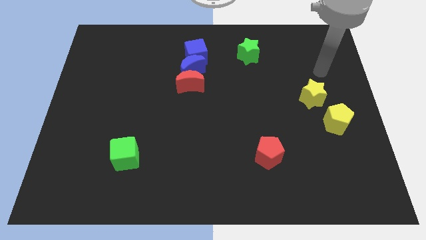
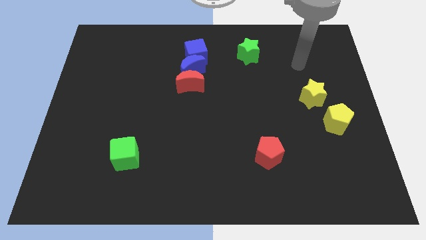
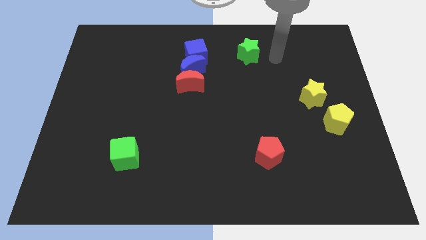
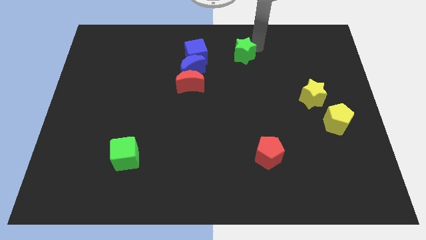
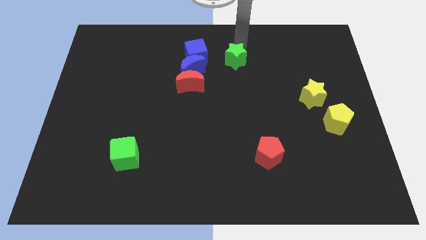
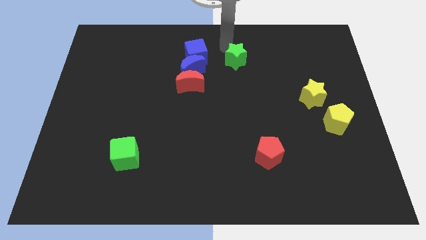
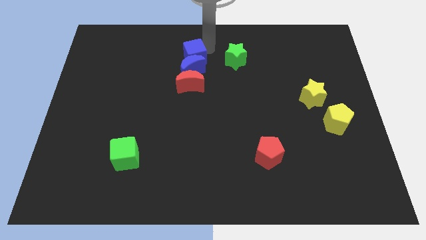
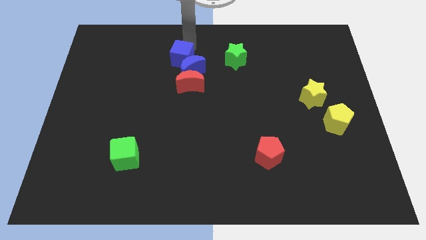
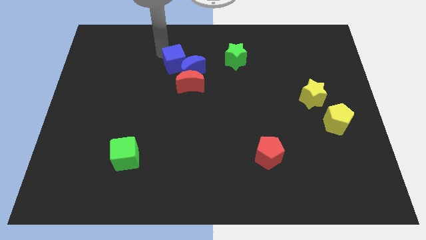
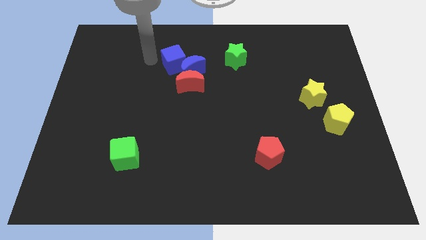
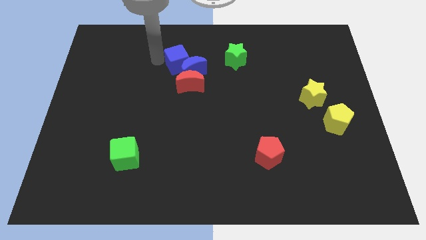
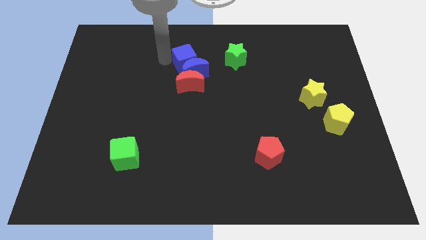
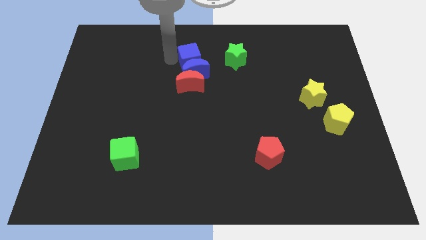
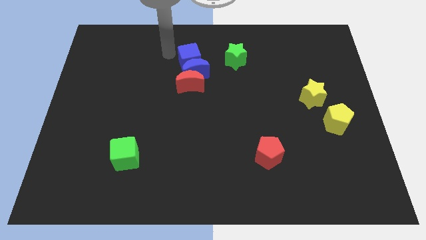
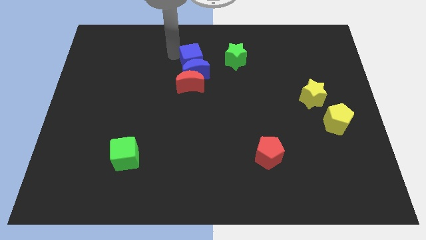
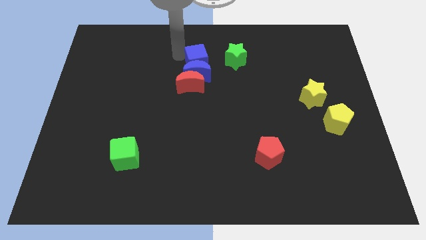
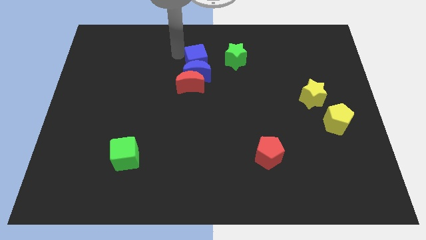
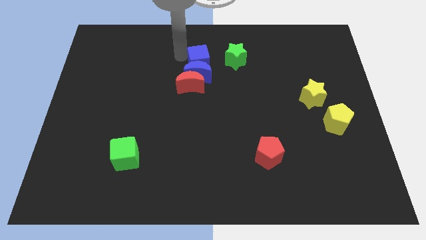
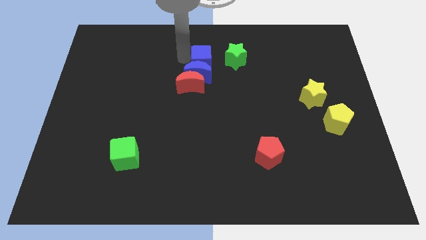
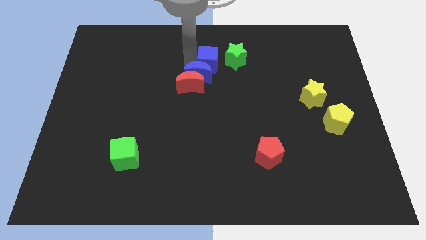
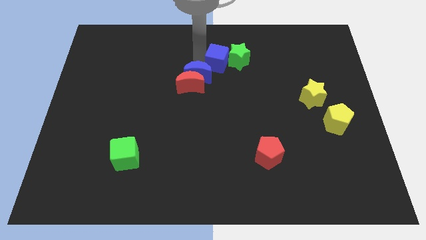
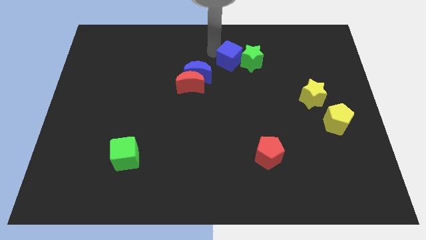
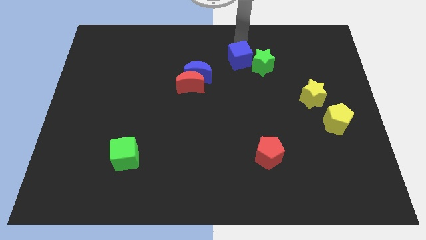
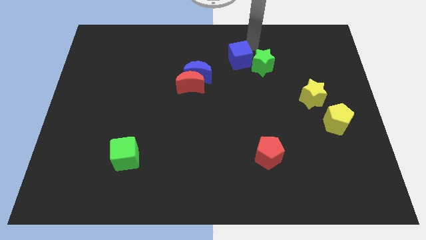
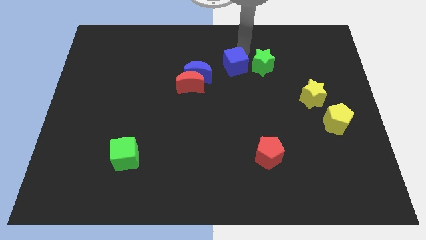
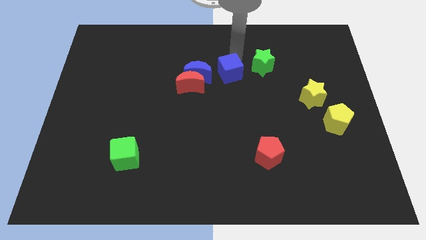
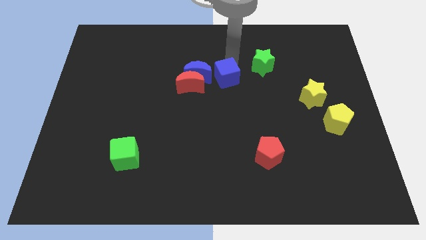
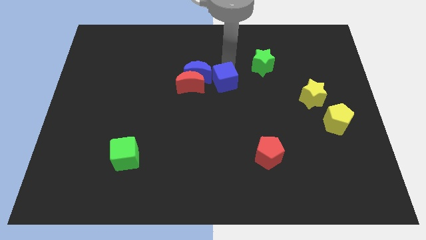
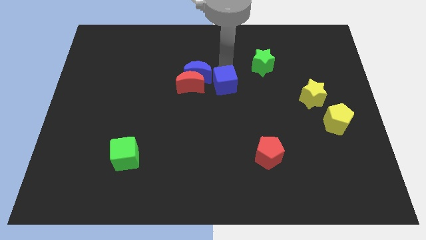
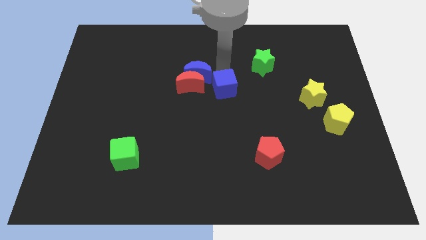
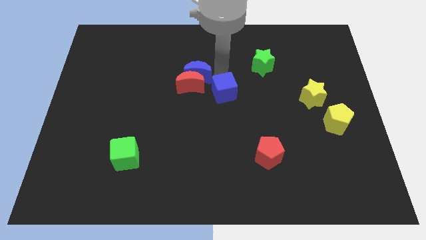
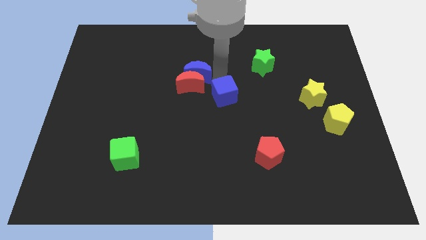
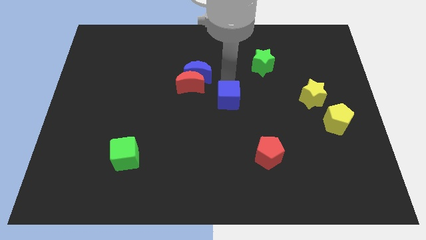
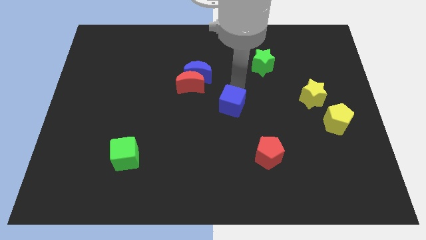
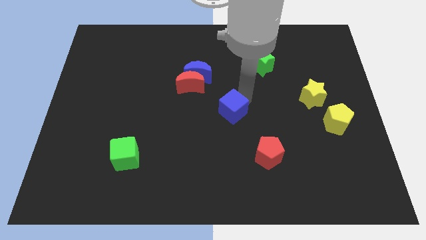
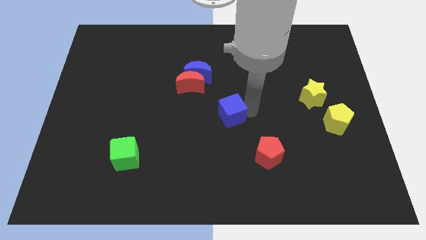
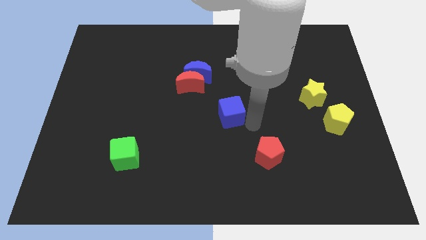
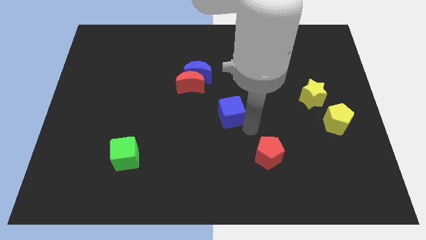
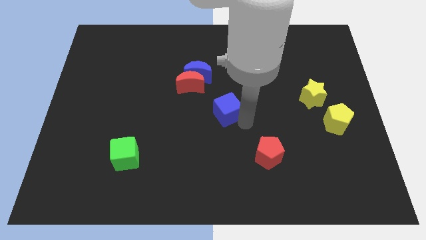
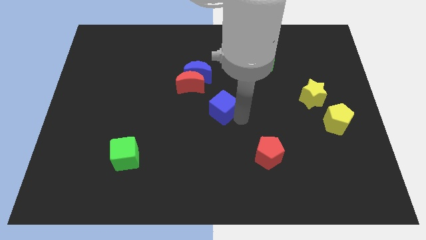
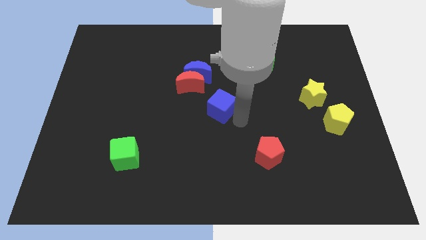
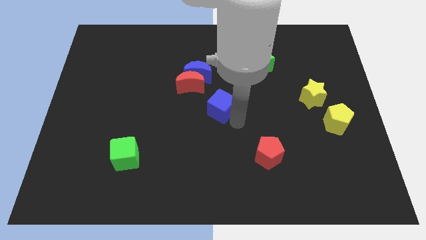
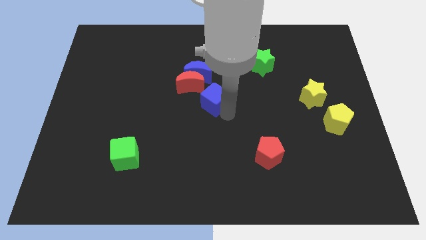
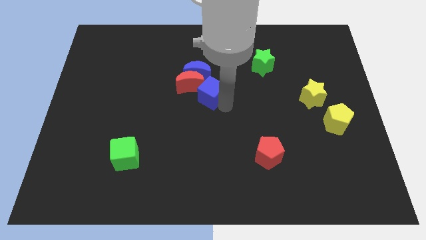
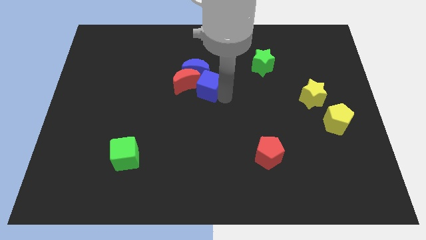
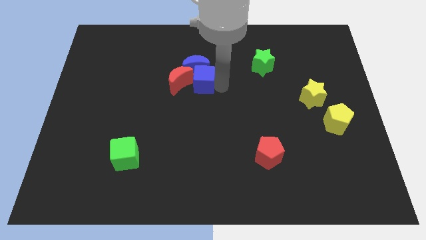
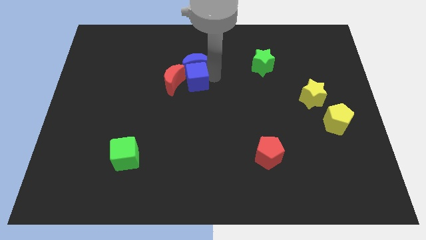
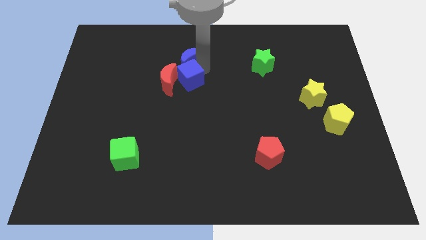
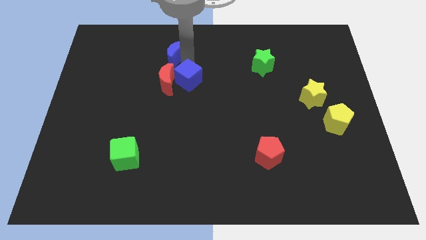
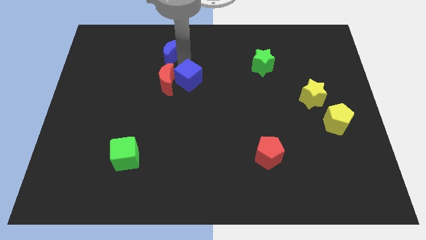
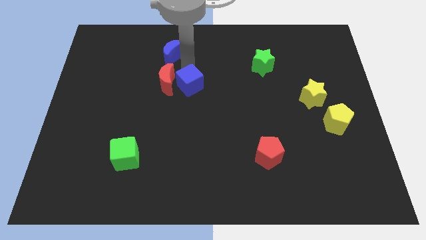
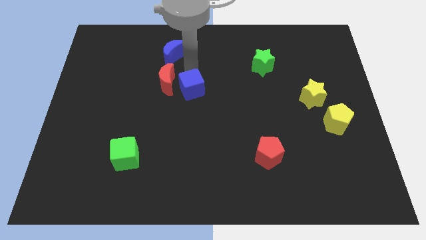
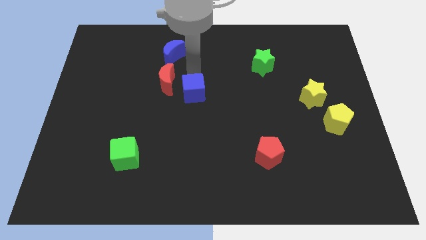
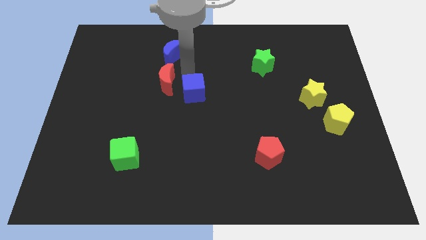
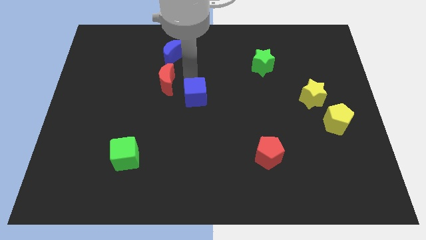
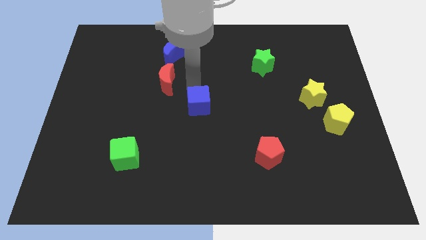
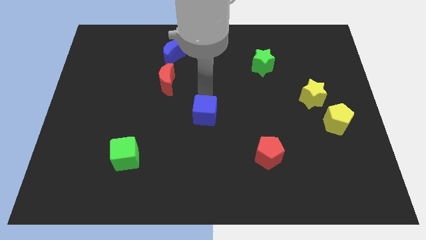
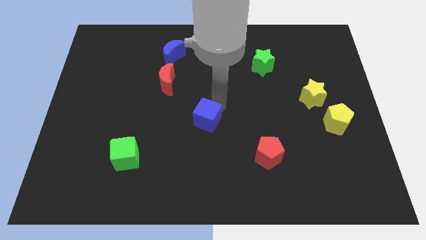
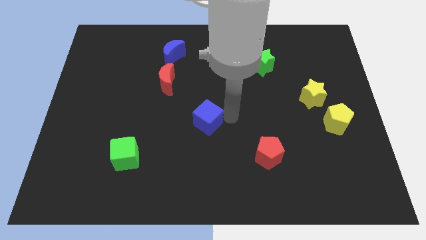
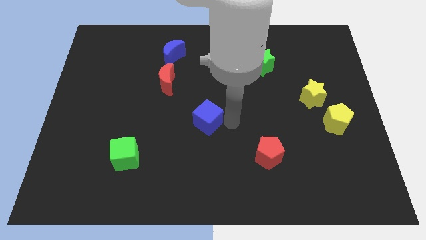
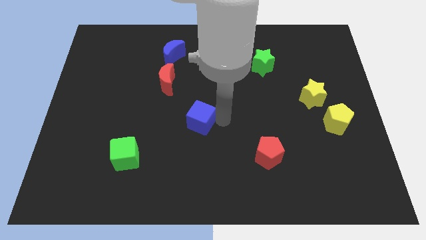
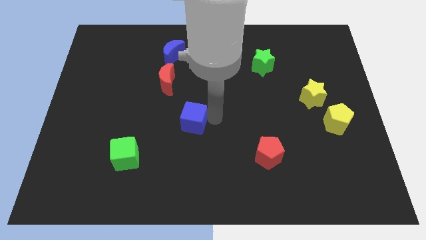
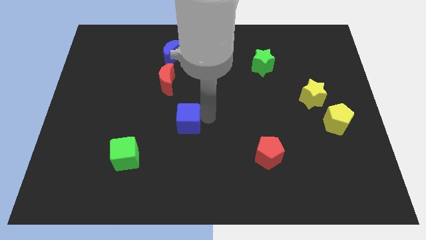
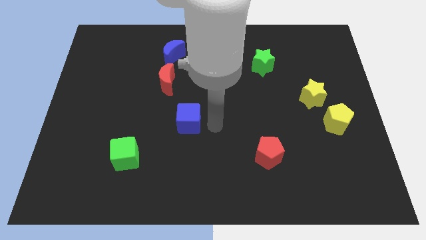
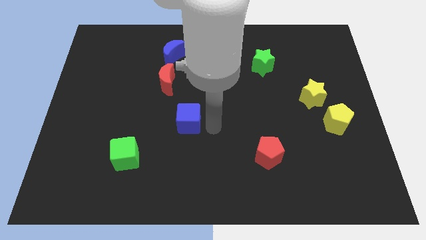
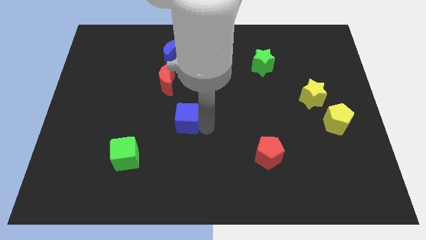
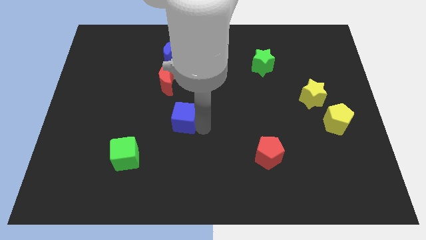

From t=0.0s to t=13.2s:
move the blue cube to the bottom side of the red moon

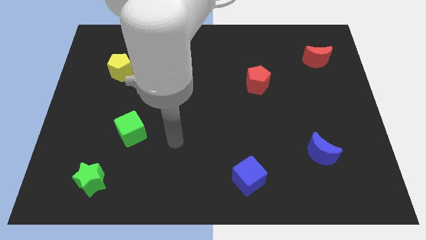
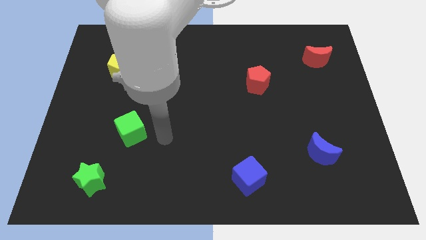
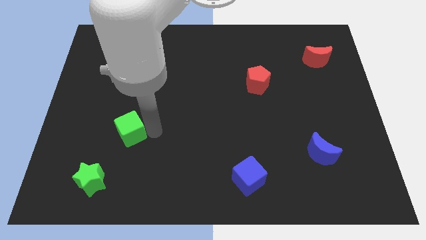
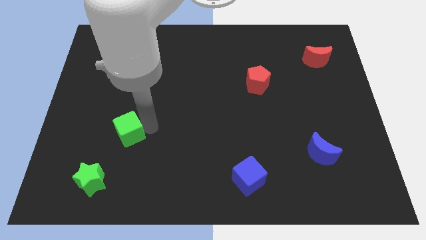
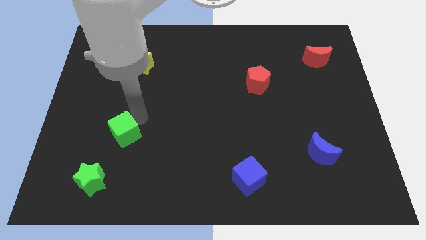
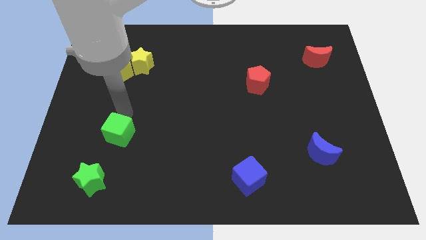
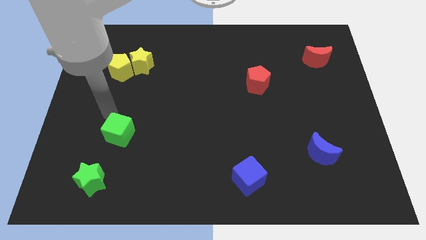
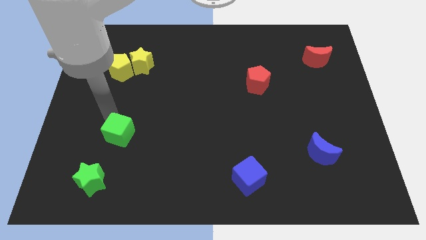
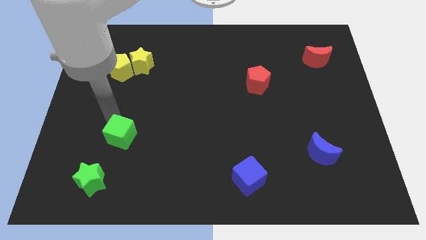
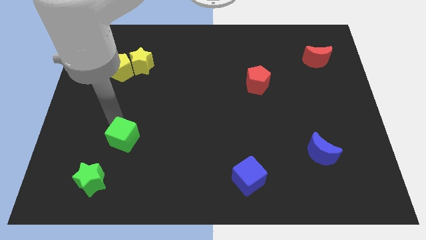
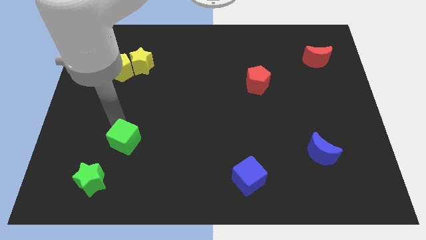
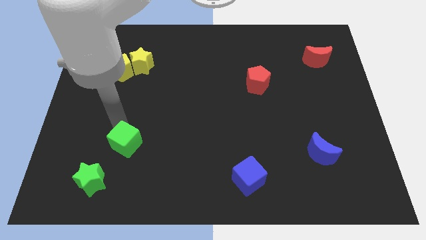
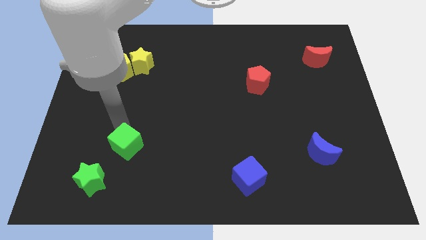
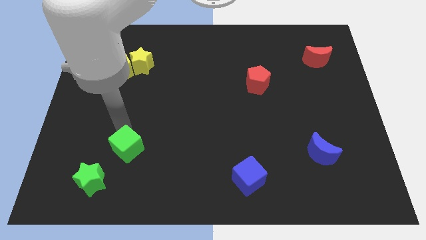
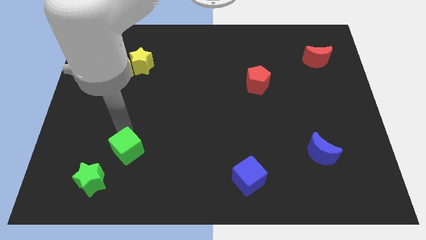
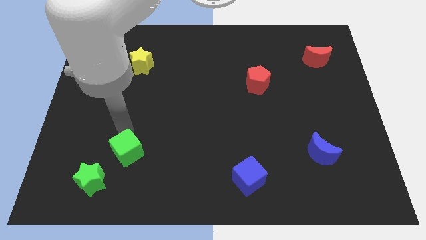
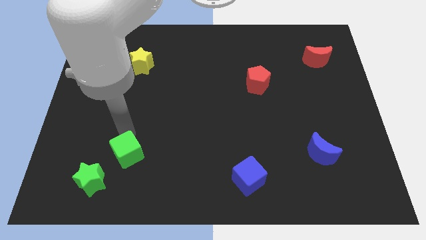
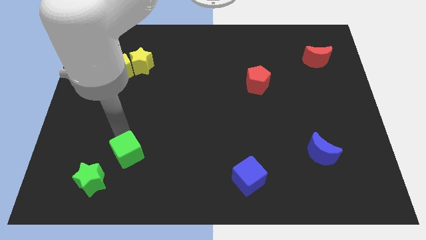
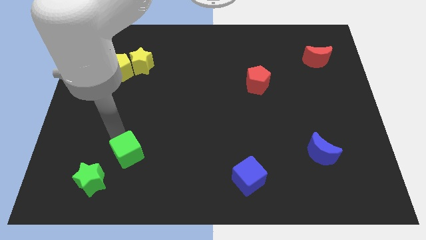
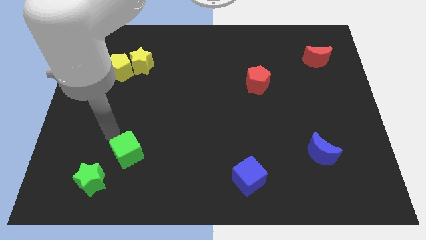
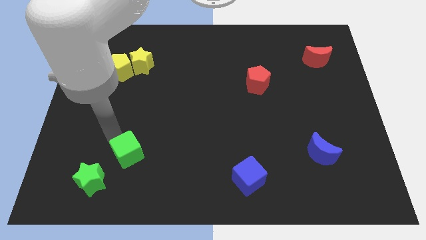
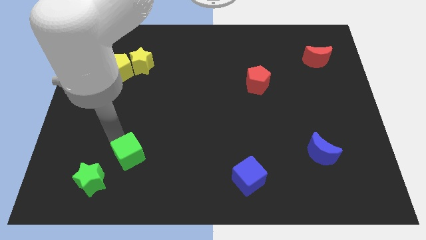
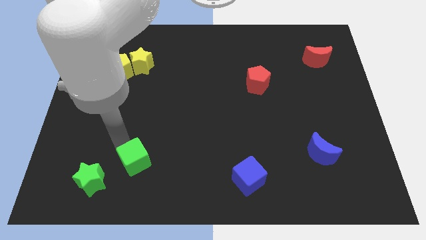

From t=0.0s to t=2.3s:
put the green cube just right of the green star
